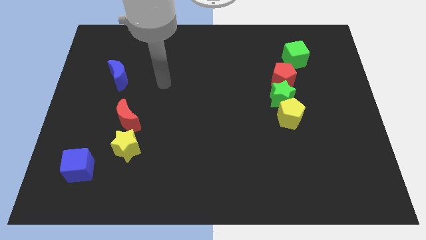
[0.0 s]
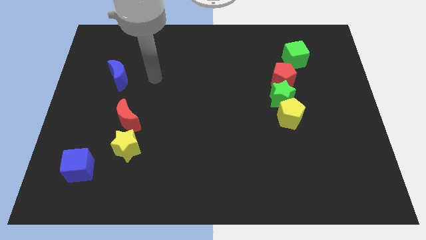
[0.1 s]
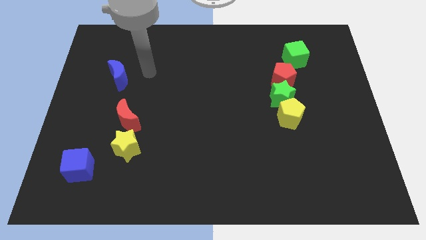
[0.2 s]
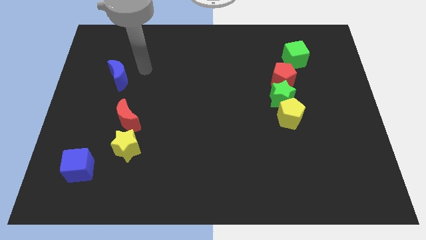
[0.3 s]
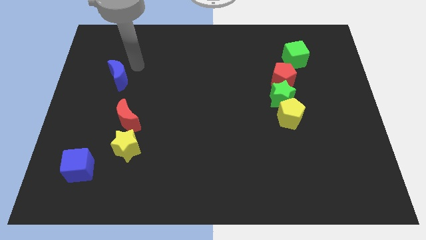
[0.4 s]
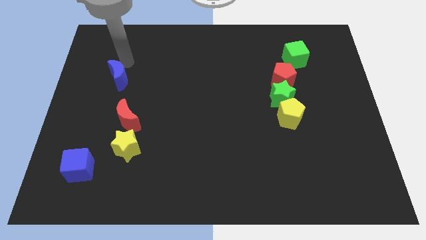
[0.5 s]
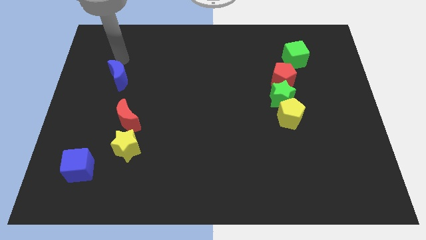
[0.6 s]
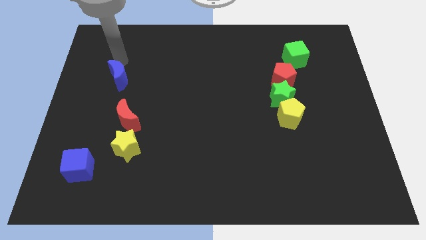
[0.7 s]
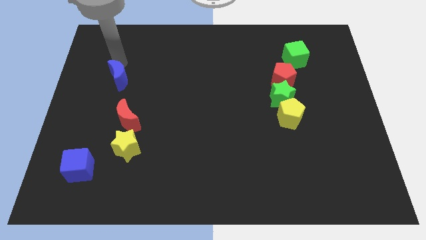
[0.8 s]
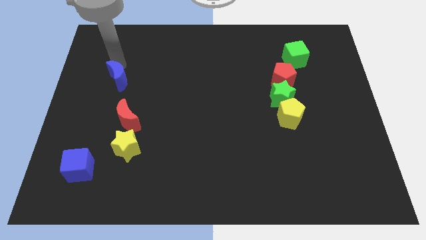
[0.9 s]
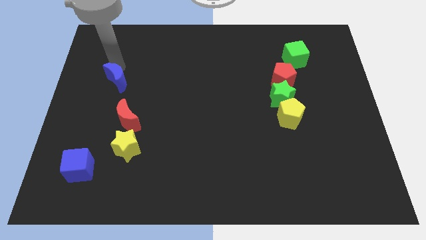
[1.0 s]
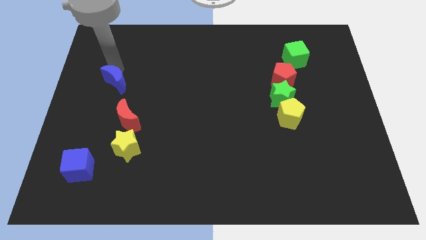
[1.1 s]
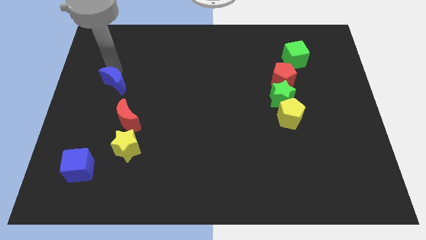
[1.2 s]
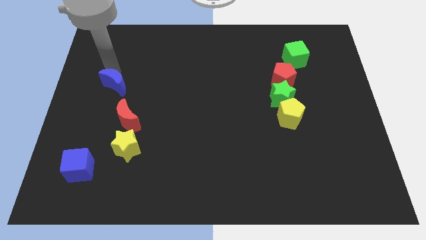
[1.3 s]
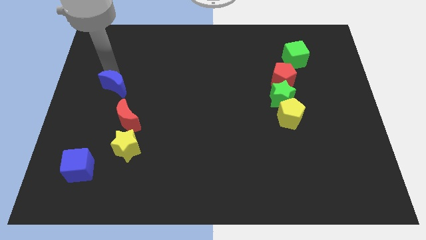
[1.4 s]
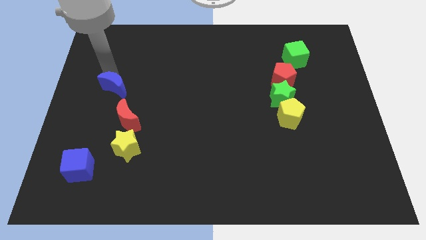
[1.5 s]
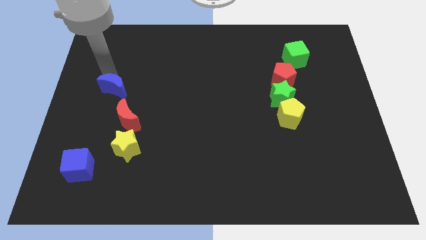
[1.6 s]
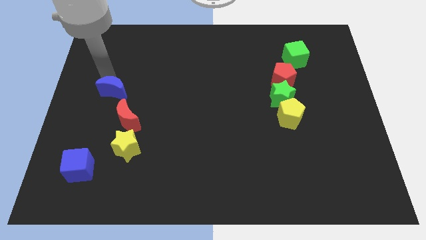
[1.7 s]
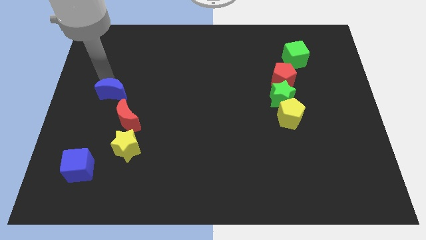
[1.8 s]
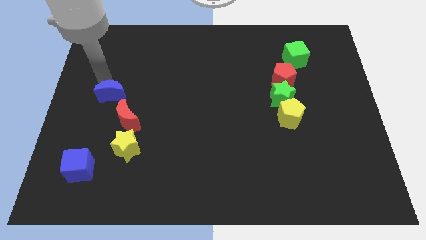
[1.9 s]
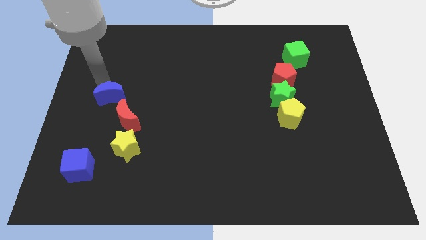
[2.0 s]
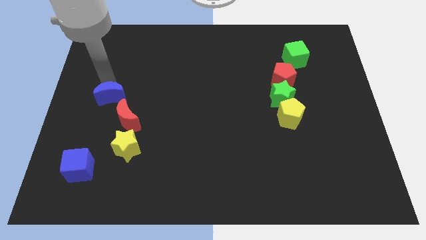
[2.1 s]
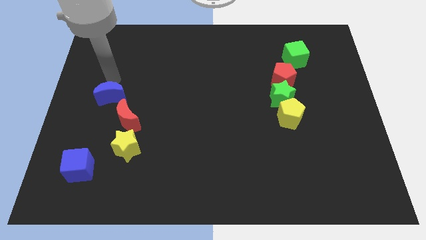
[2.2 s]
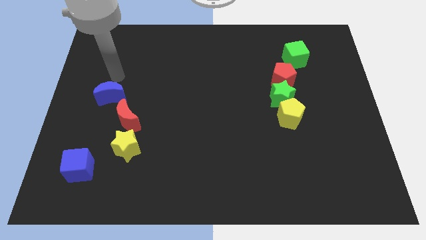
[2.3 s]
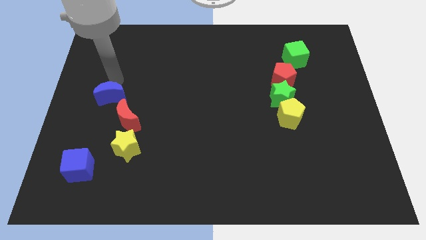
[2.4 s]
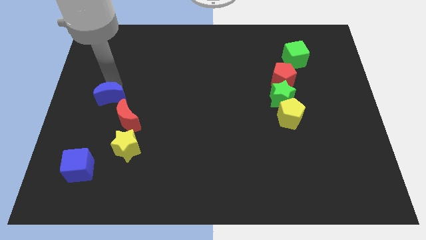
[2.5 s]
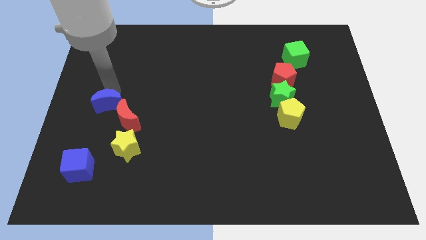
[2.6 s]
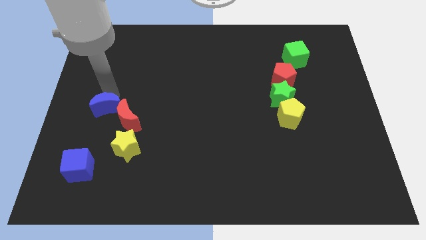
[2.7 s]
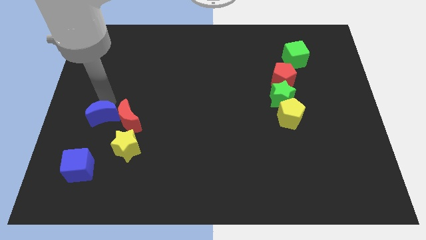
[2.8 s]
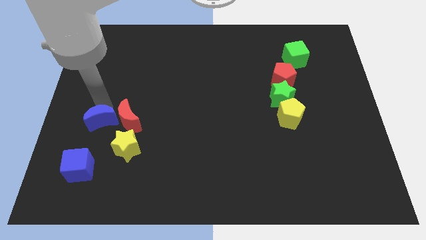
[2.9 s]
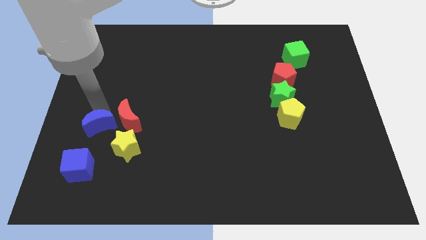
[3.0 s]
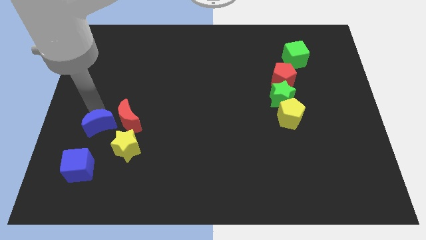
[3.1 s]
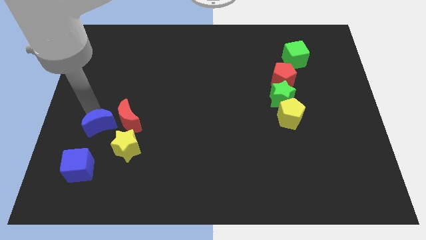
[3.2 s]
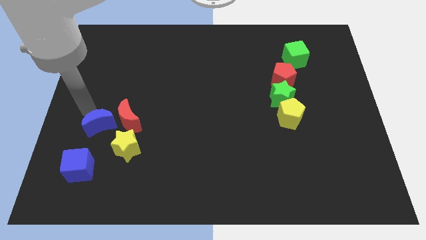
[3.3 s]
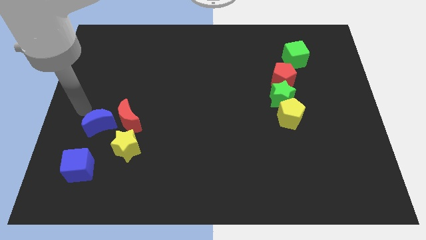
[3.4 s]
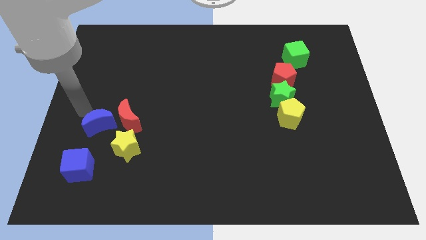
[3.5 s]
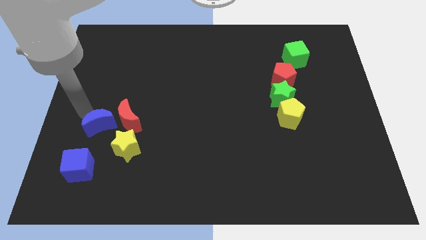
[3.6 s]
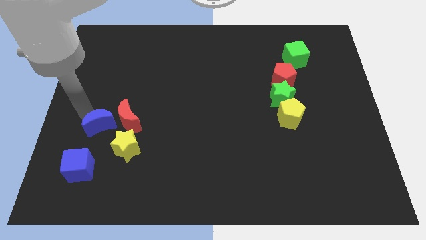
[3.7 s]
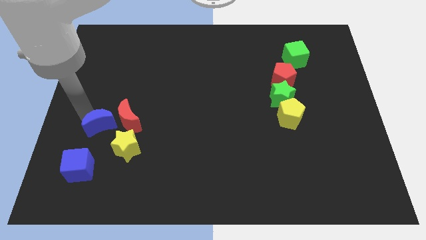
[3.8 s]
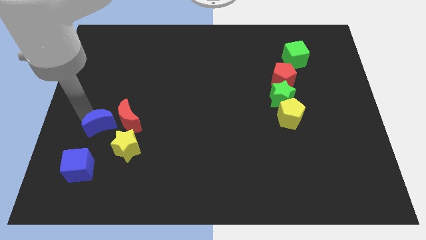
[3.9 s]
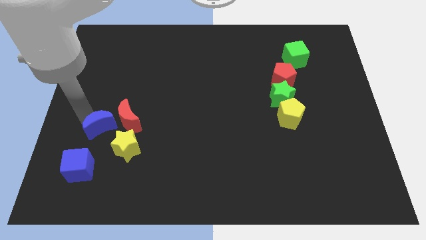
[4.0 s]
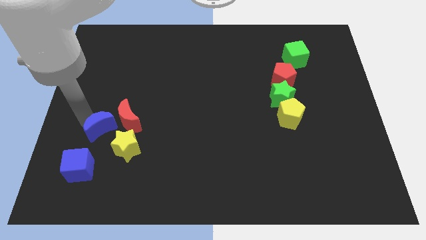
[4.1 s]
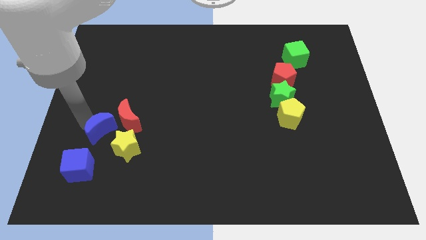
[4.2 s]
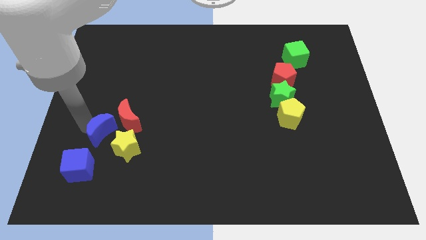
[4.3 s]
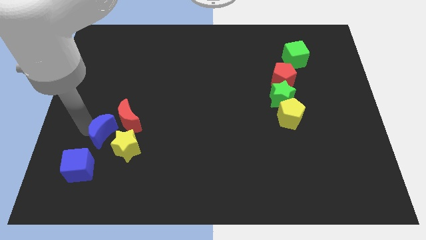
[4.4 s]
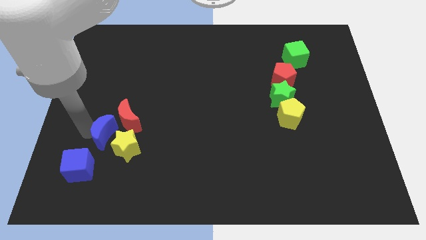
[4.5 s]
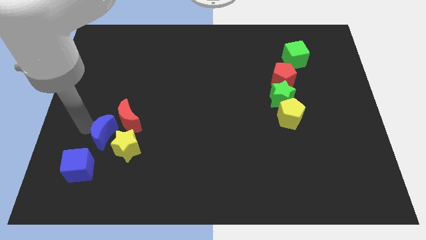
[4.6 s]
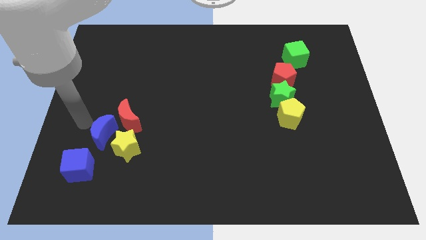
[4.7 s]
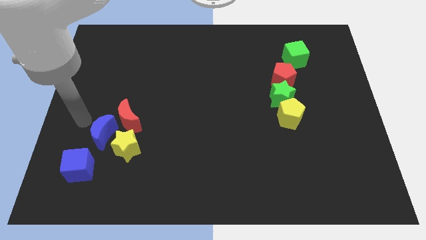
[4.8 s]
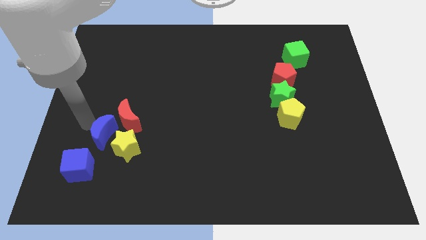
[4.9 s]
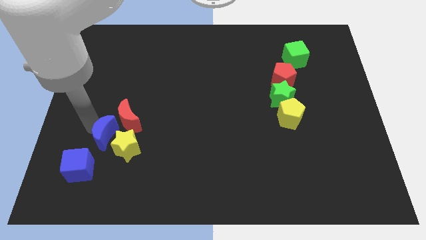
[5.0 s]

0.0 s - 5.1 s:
move the blue moon next to the yellow star

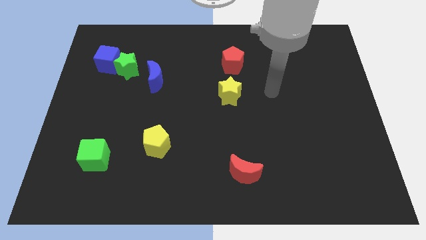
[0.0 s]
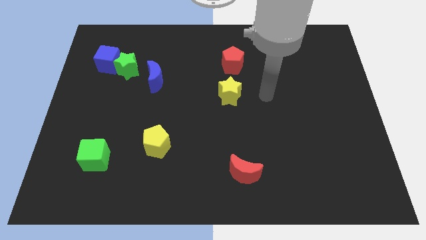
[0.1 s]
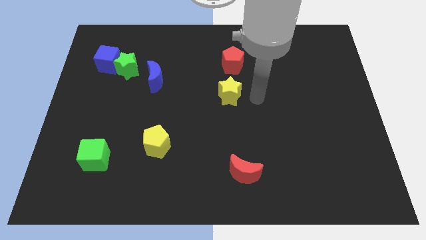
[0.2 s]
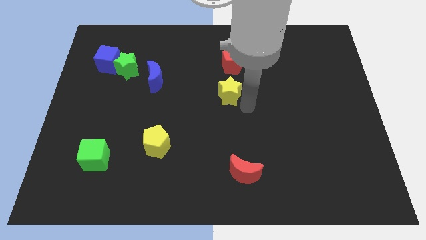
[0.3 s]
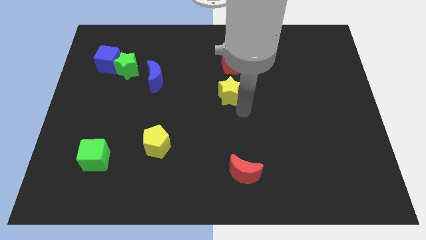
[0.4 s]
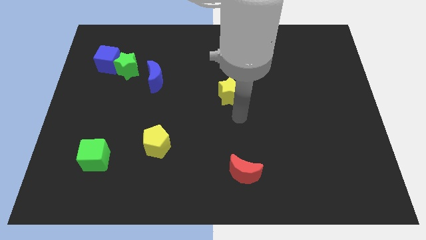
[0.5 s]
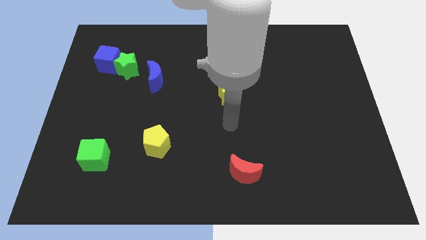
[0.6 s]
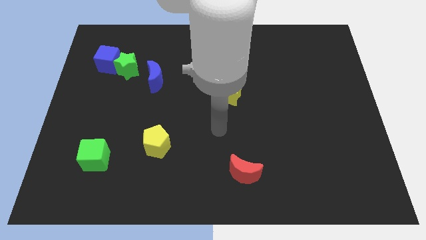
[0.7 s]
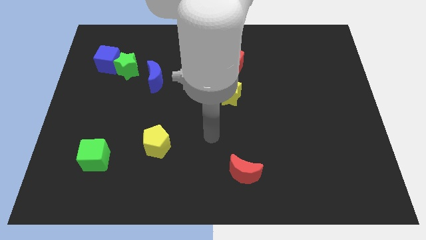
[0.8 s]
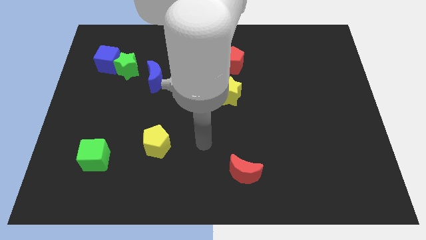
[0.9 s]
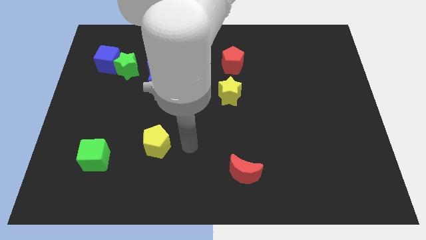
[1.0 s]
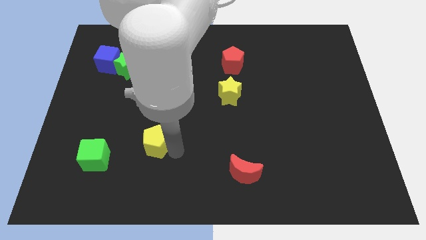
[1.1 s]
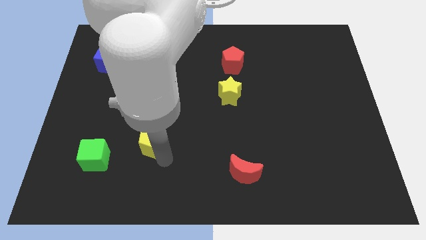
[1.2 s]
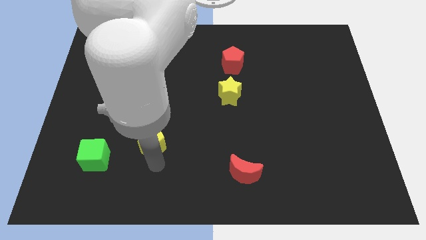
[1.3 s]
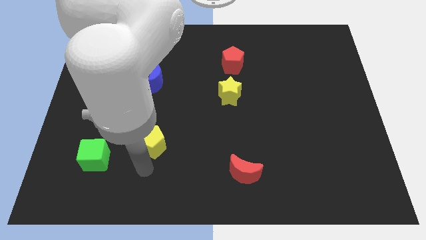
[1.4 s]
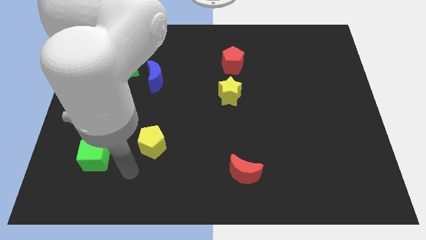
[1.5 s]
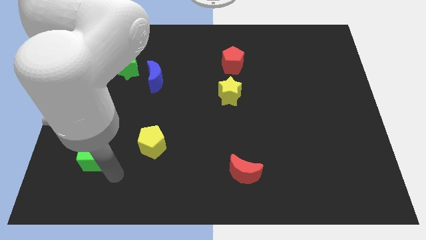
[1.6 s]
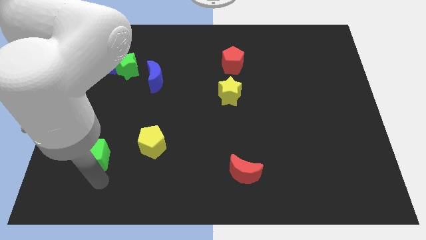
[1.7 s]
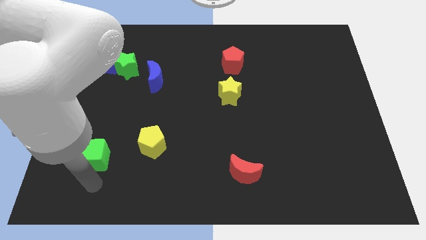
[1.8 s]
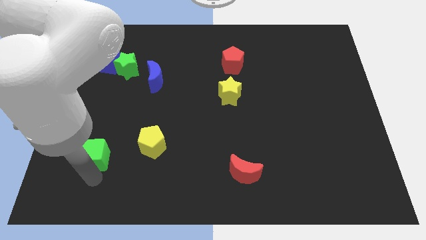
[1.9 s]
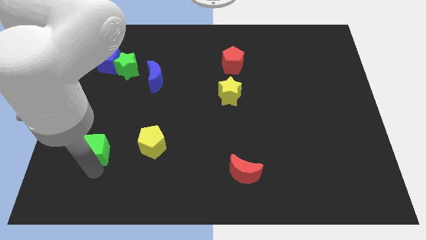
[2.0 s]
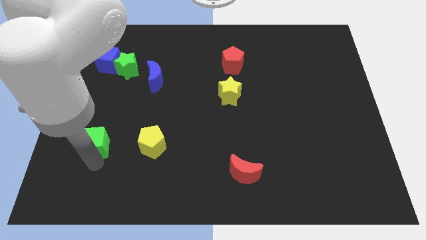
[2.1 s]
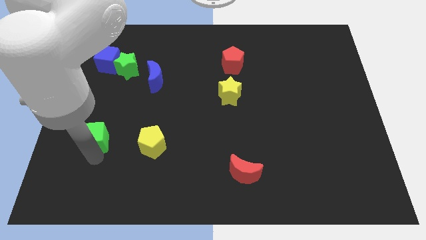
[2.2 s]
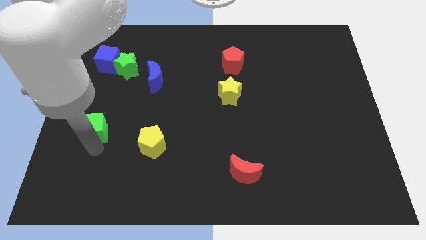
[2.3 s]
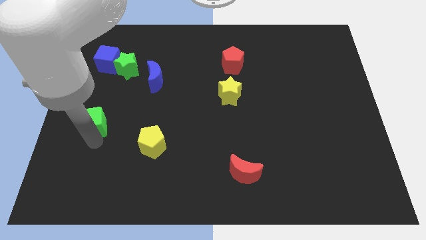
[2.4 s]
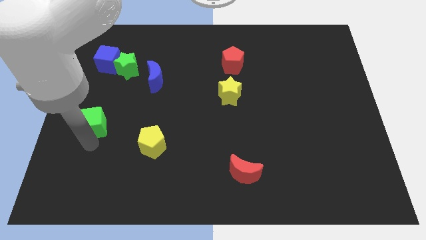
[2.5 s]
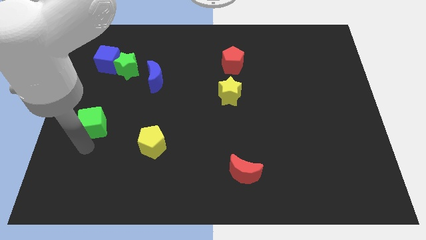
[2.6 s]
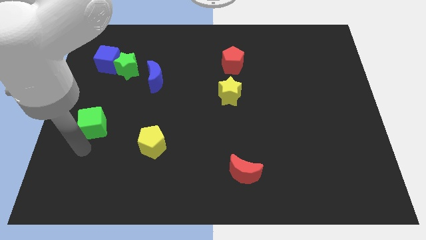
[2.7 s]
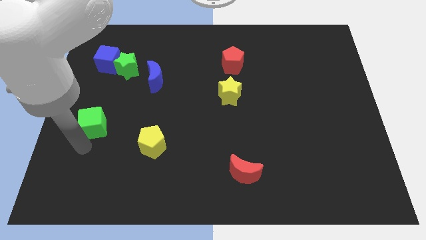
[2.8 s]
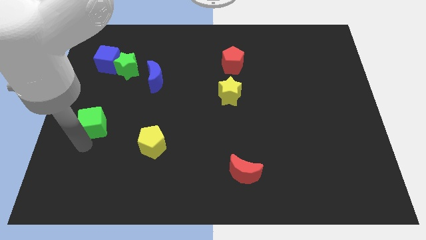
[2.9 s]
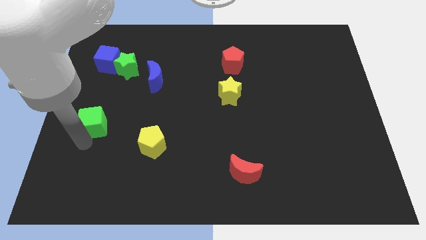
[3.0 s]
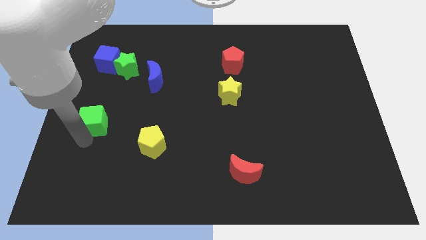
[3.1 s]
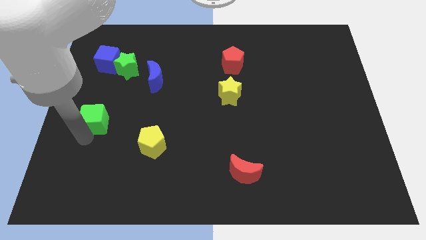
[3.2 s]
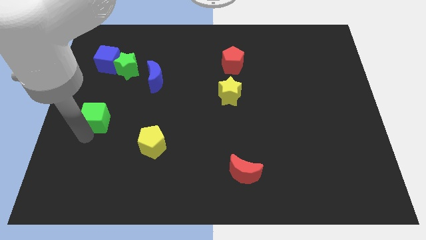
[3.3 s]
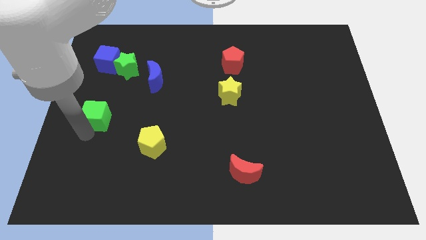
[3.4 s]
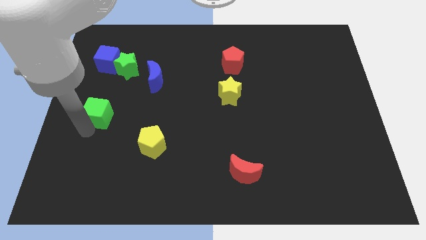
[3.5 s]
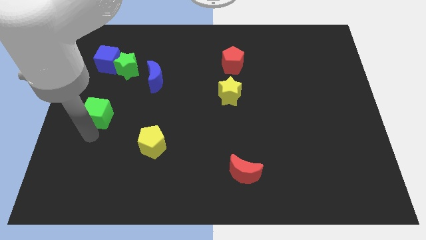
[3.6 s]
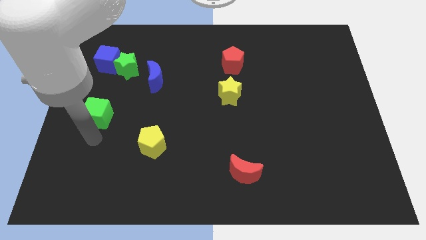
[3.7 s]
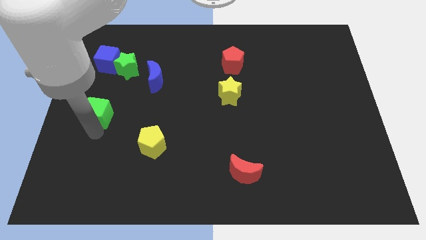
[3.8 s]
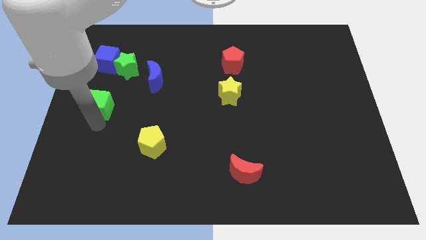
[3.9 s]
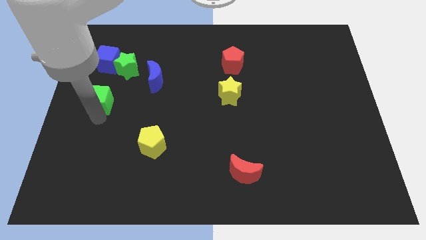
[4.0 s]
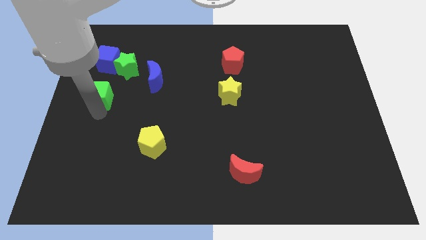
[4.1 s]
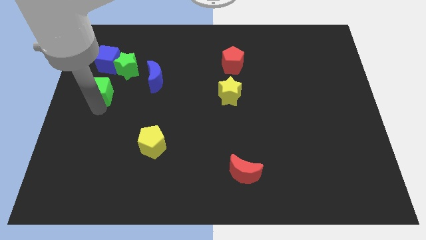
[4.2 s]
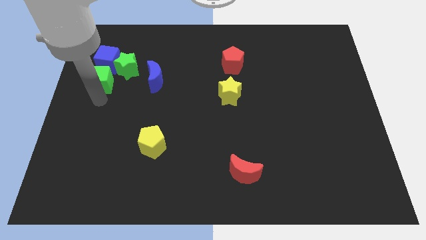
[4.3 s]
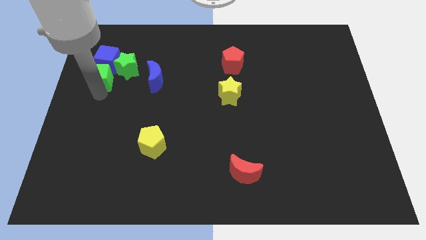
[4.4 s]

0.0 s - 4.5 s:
move the green cube to the blue cube
